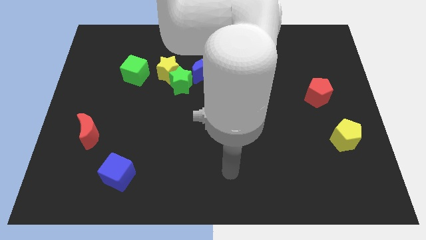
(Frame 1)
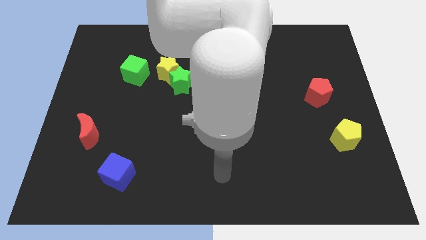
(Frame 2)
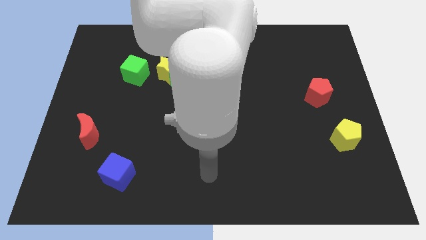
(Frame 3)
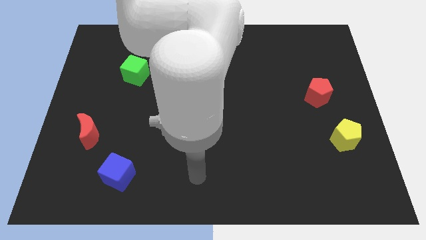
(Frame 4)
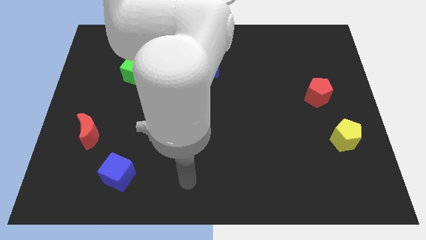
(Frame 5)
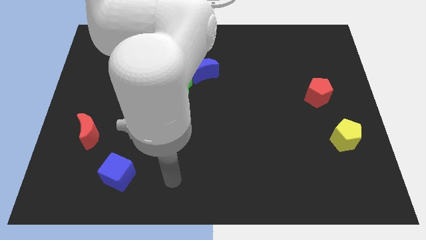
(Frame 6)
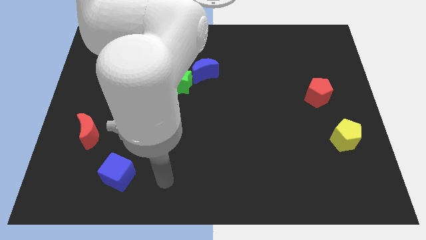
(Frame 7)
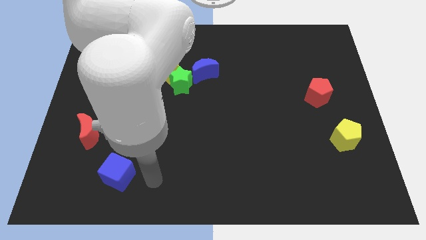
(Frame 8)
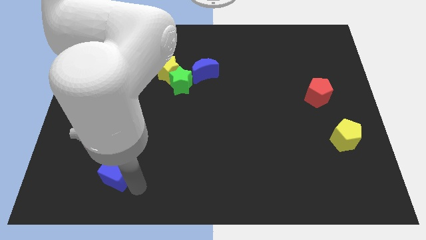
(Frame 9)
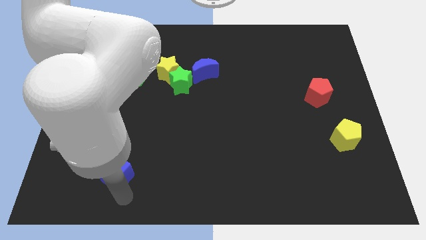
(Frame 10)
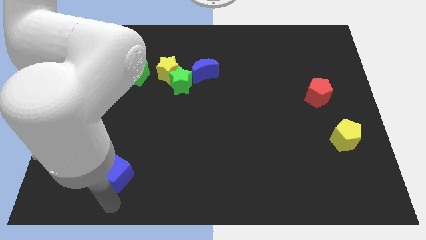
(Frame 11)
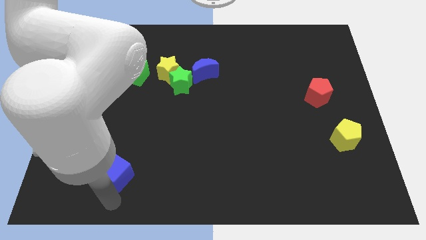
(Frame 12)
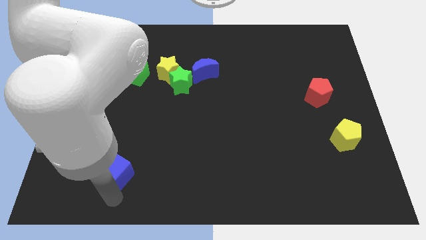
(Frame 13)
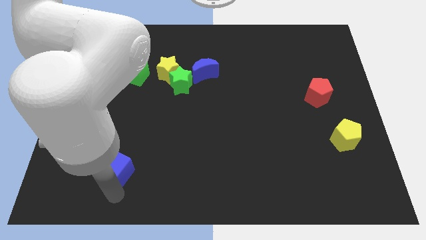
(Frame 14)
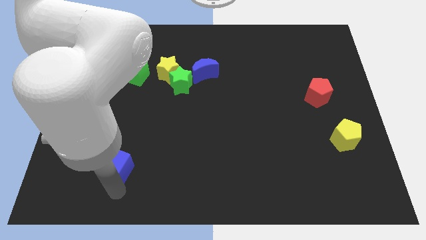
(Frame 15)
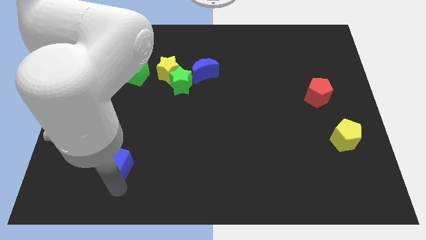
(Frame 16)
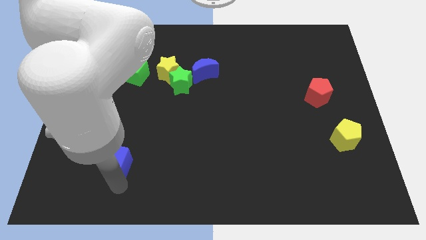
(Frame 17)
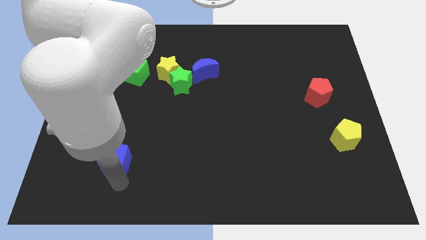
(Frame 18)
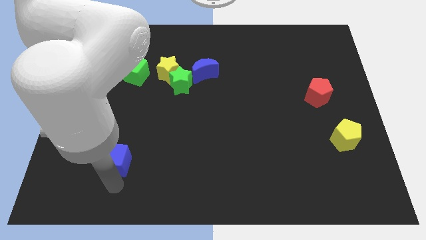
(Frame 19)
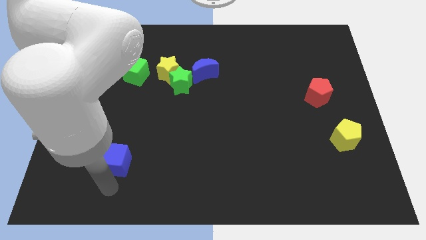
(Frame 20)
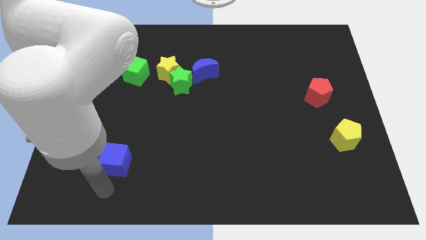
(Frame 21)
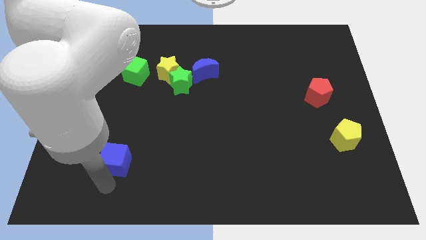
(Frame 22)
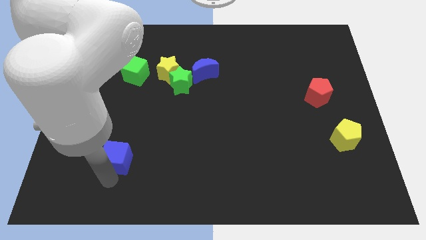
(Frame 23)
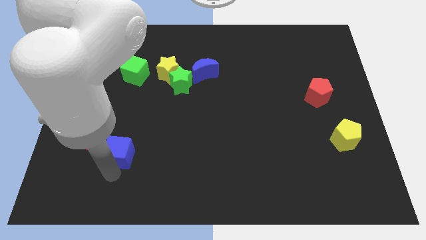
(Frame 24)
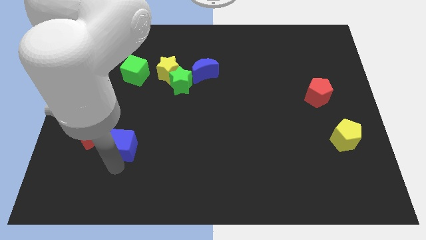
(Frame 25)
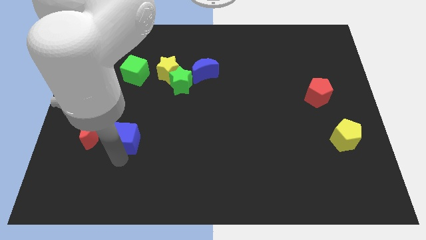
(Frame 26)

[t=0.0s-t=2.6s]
slightly move the blue cube up

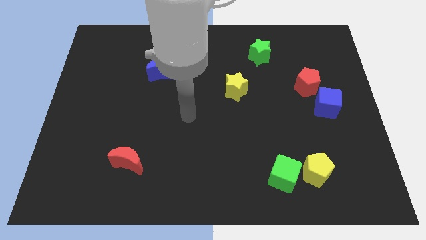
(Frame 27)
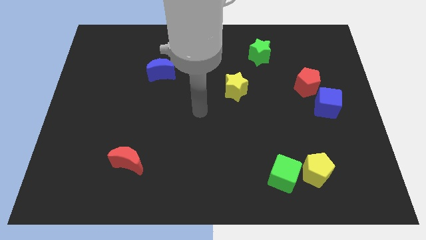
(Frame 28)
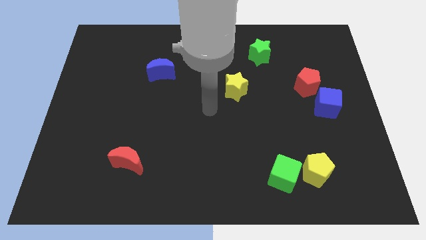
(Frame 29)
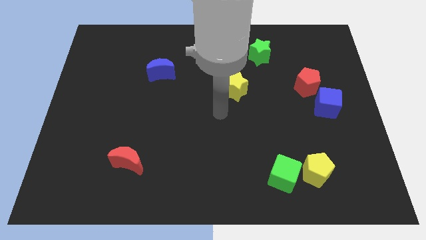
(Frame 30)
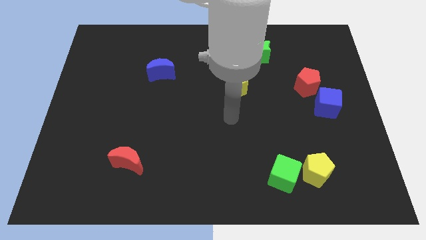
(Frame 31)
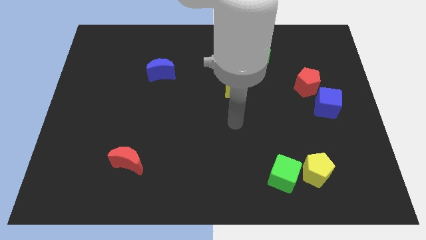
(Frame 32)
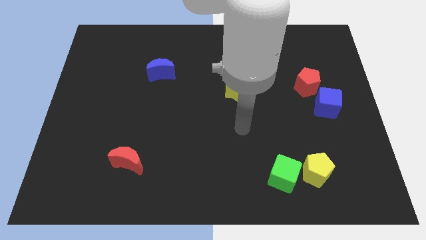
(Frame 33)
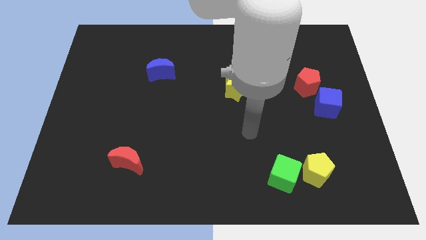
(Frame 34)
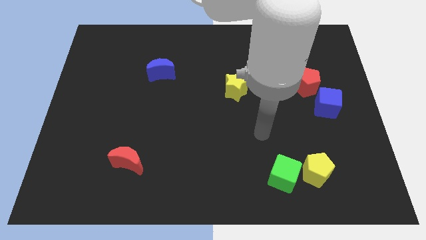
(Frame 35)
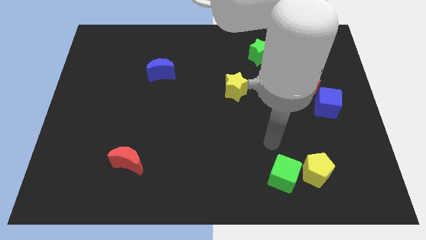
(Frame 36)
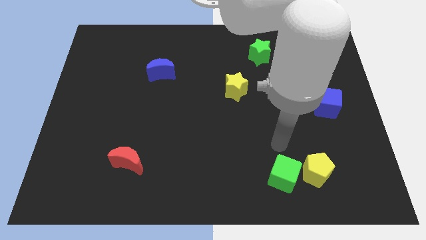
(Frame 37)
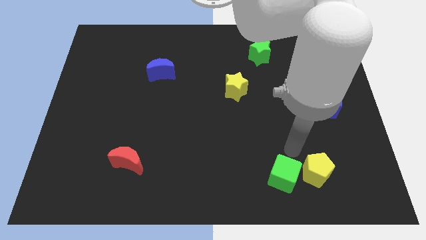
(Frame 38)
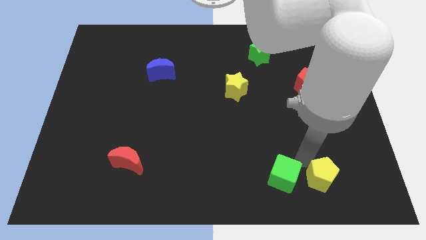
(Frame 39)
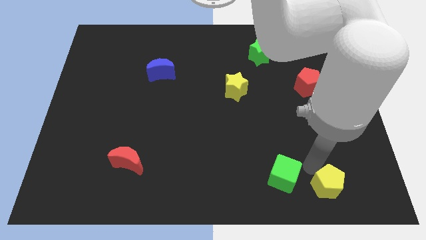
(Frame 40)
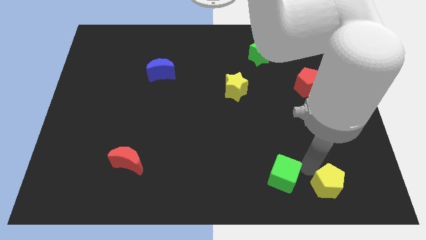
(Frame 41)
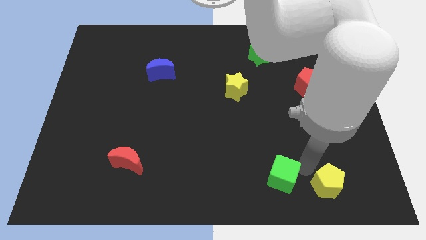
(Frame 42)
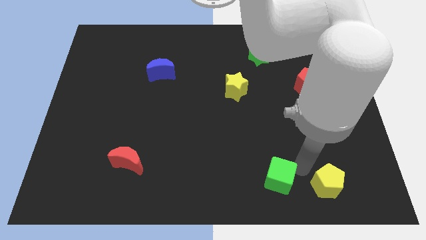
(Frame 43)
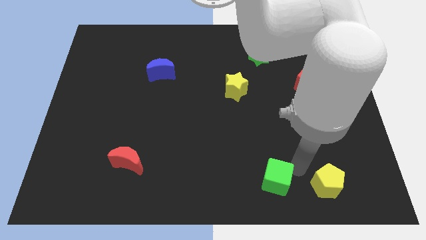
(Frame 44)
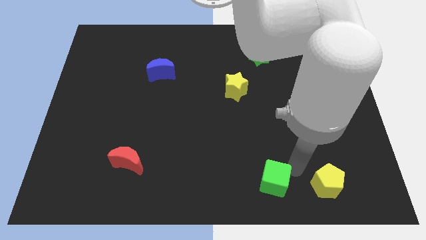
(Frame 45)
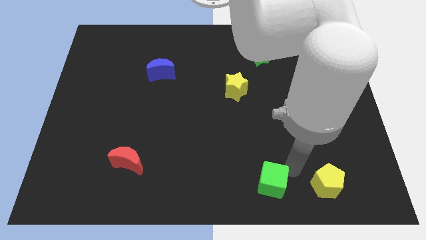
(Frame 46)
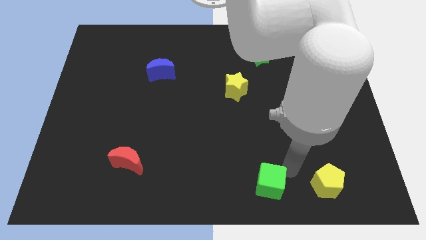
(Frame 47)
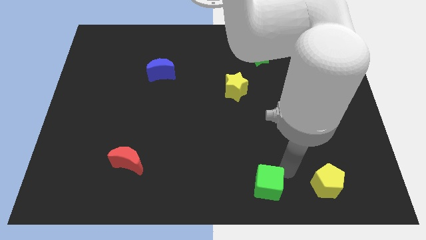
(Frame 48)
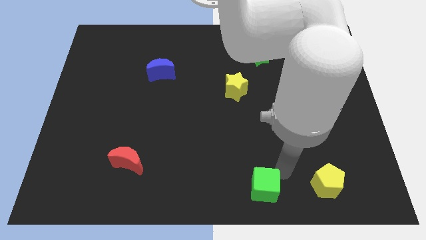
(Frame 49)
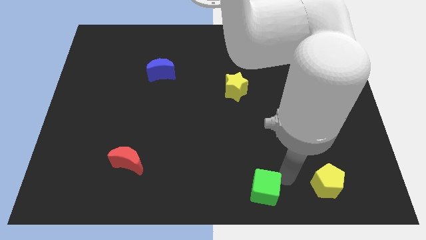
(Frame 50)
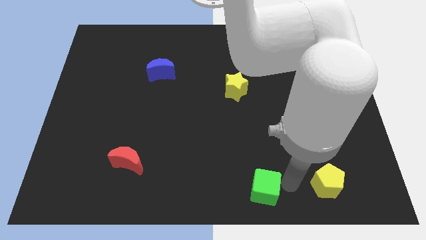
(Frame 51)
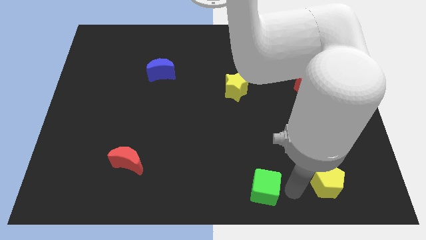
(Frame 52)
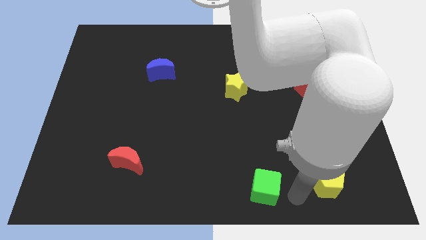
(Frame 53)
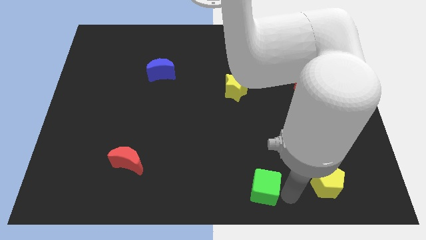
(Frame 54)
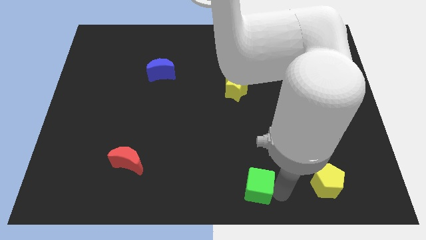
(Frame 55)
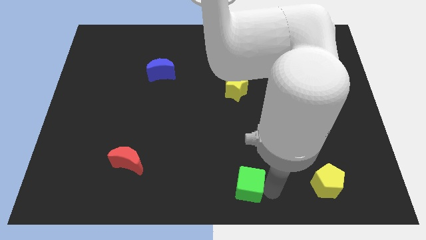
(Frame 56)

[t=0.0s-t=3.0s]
slide the green cube a little left

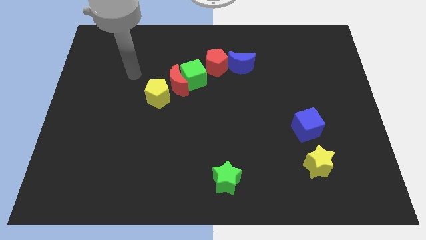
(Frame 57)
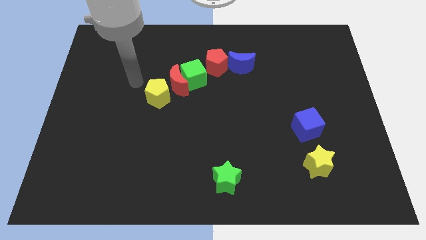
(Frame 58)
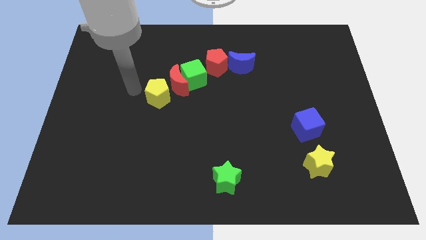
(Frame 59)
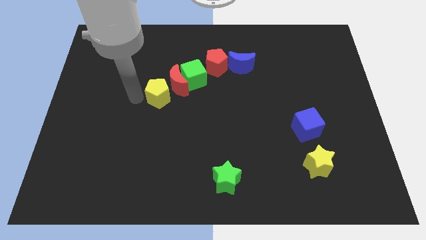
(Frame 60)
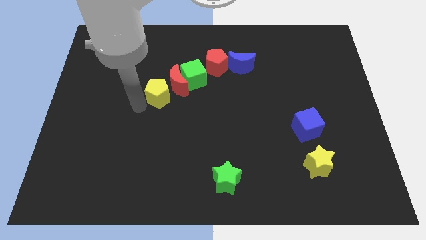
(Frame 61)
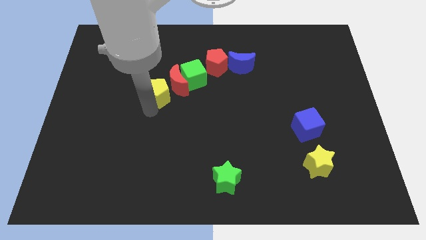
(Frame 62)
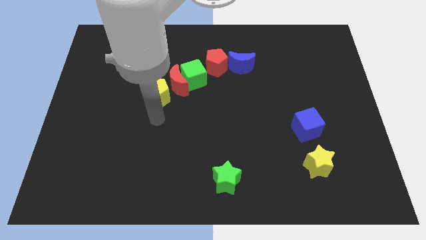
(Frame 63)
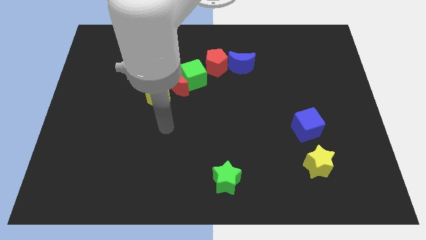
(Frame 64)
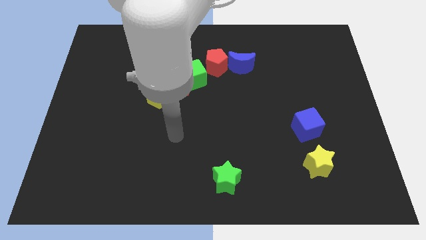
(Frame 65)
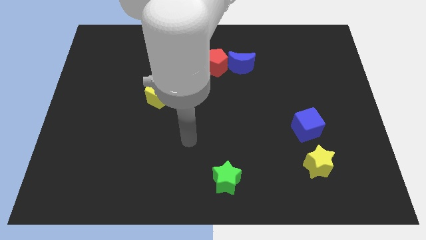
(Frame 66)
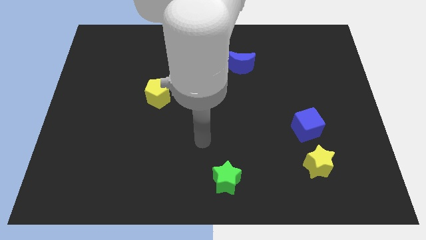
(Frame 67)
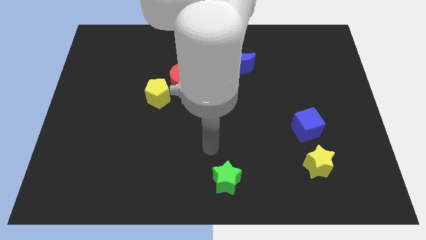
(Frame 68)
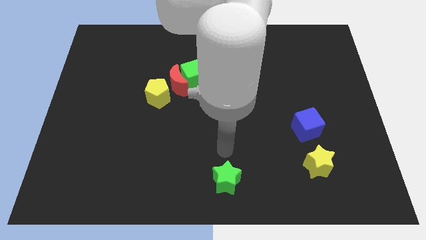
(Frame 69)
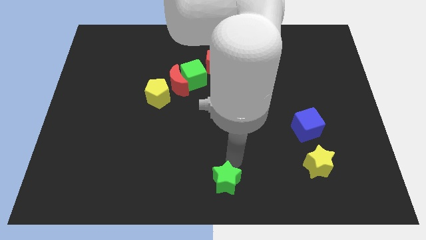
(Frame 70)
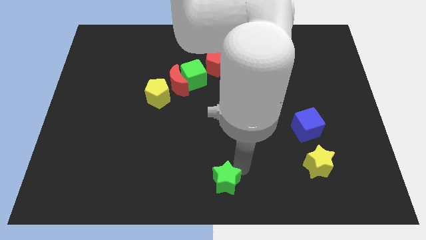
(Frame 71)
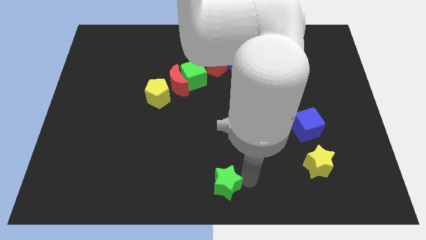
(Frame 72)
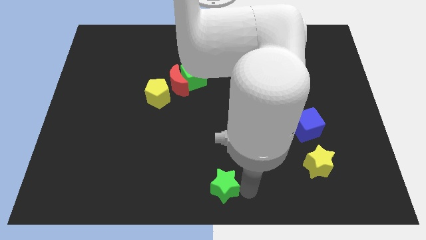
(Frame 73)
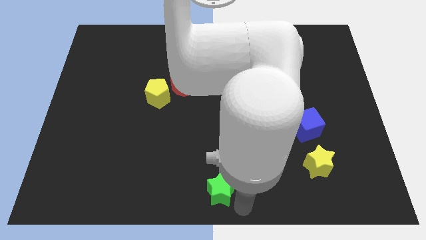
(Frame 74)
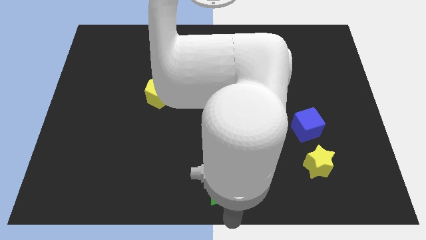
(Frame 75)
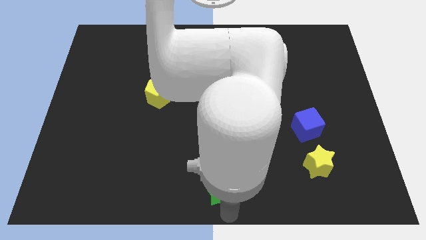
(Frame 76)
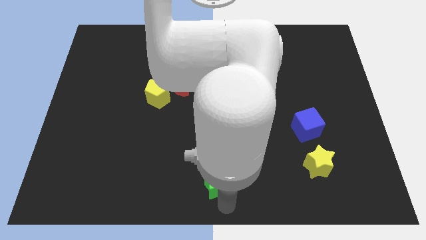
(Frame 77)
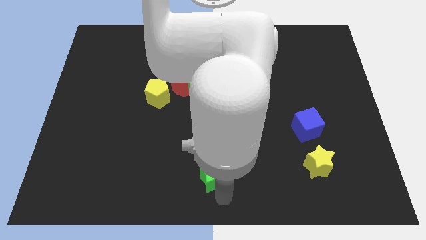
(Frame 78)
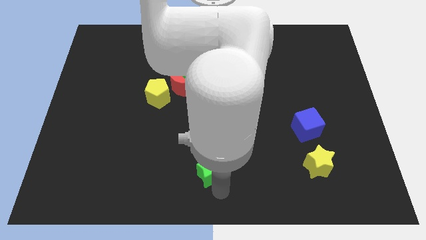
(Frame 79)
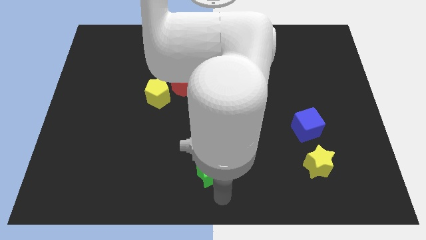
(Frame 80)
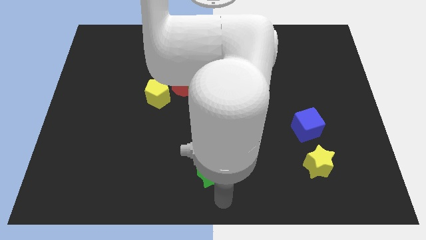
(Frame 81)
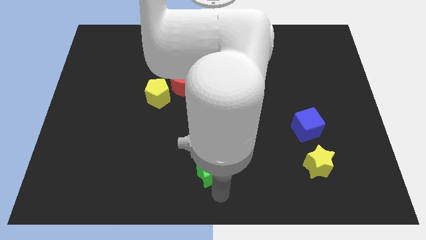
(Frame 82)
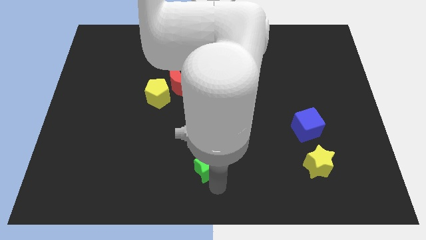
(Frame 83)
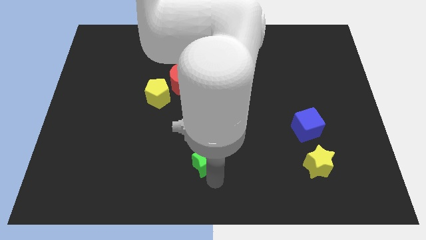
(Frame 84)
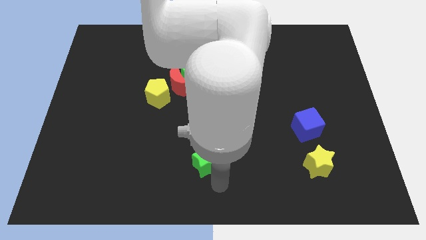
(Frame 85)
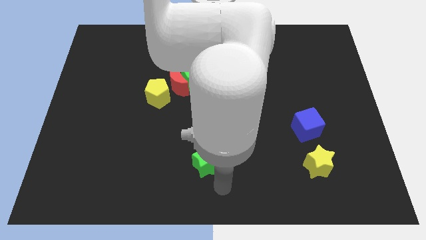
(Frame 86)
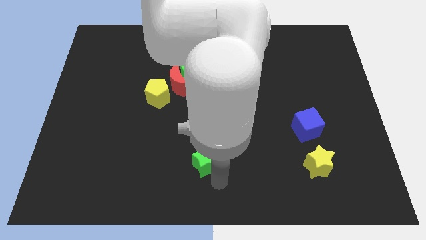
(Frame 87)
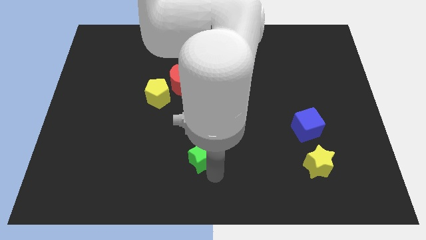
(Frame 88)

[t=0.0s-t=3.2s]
slide the green star up and left a little
